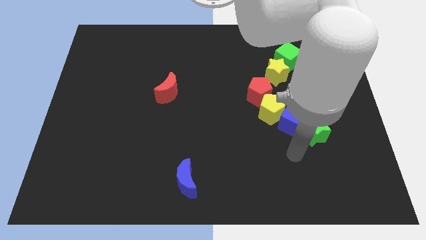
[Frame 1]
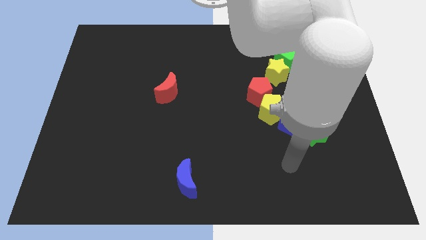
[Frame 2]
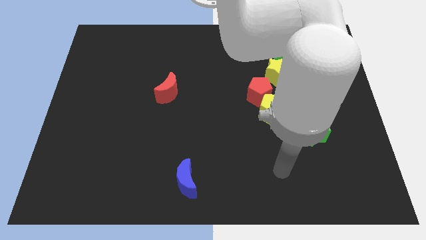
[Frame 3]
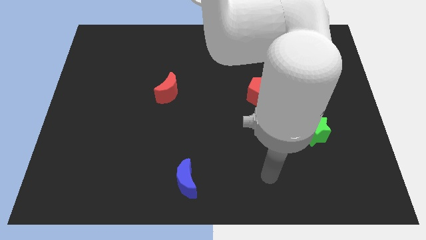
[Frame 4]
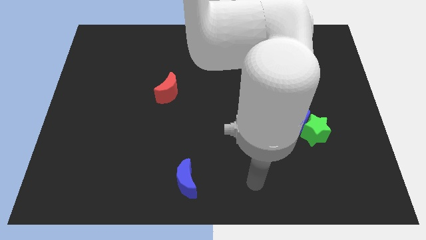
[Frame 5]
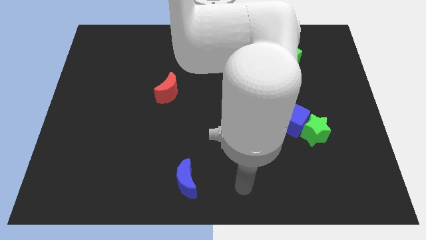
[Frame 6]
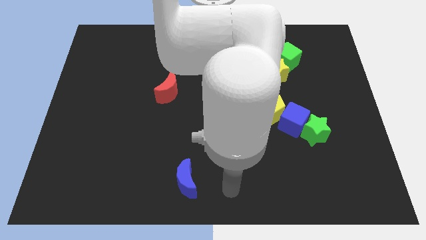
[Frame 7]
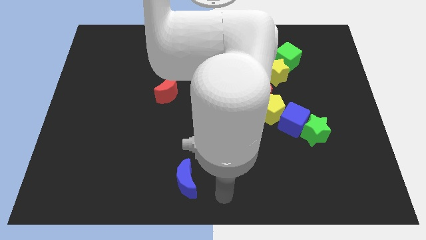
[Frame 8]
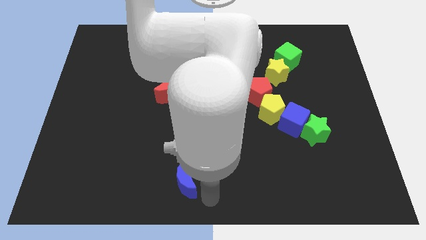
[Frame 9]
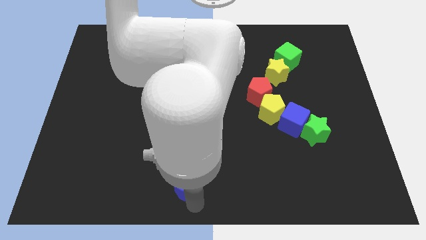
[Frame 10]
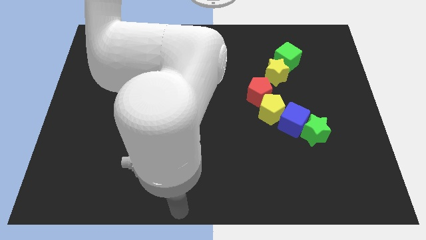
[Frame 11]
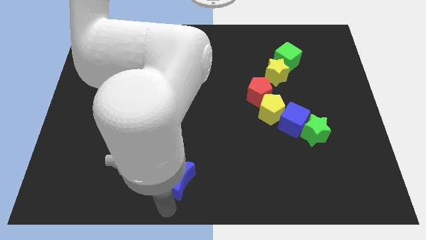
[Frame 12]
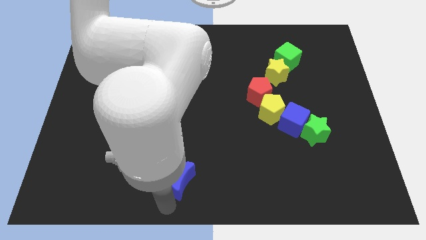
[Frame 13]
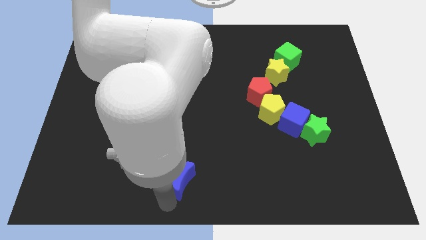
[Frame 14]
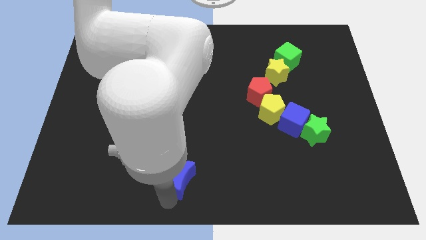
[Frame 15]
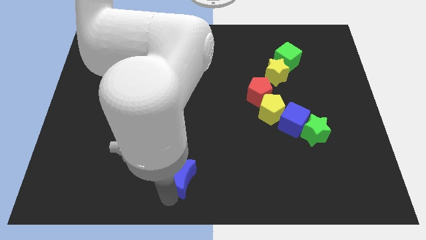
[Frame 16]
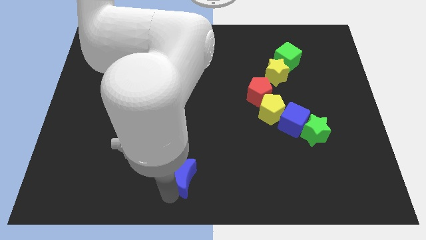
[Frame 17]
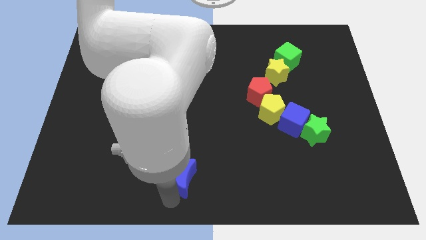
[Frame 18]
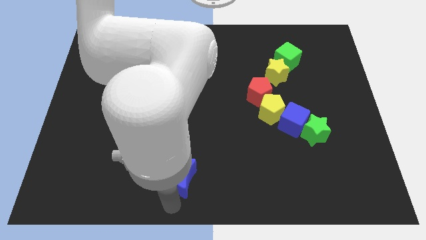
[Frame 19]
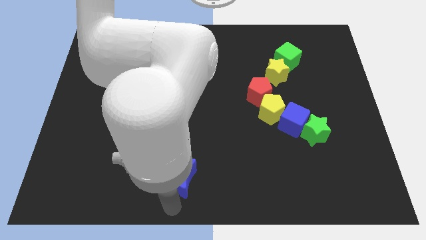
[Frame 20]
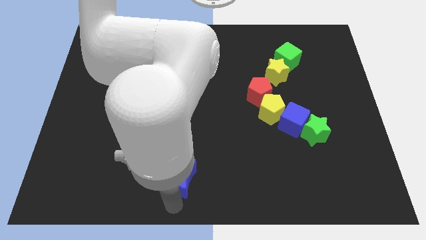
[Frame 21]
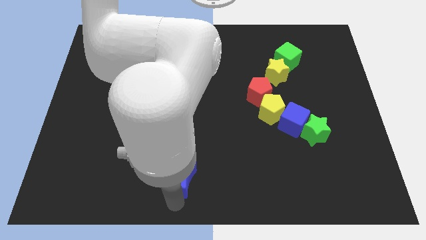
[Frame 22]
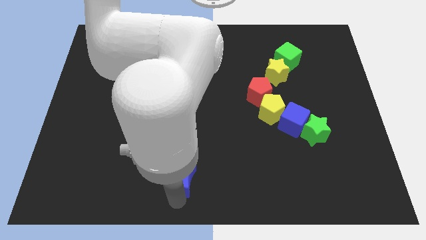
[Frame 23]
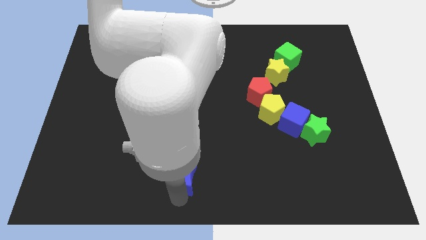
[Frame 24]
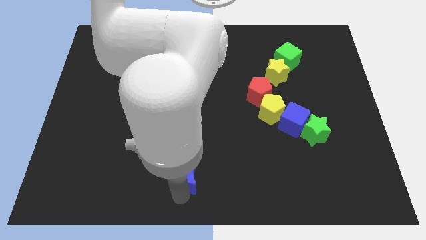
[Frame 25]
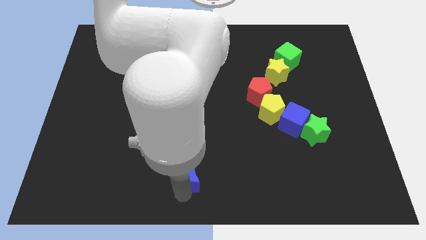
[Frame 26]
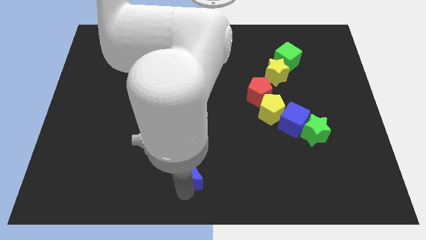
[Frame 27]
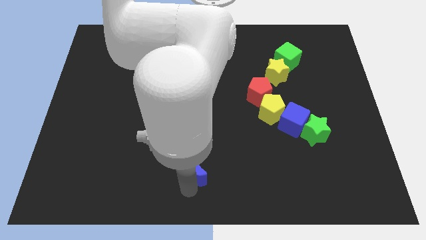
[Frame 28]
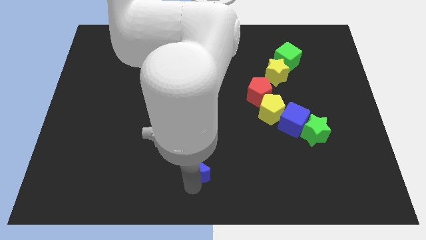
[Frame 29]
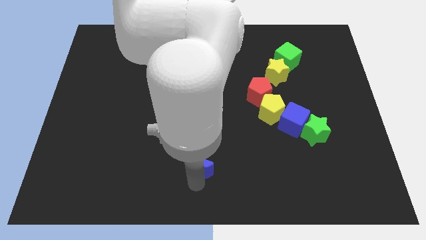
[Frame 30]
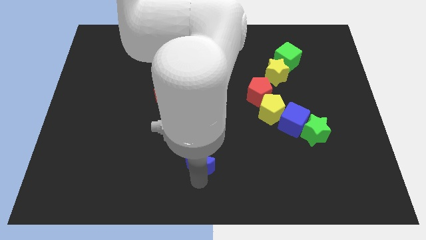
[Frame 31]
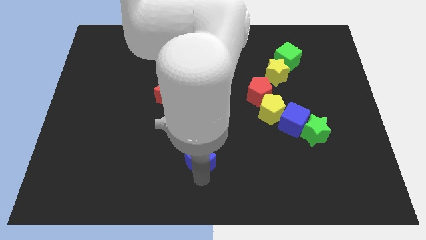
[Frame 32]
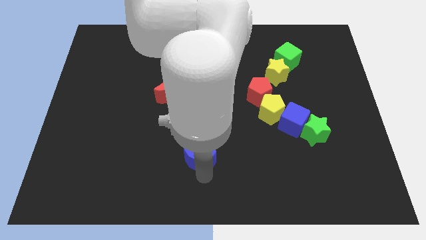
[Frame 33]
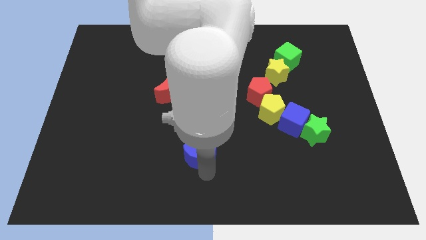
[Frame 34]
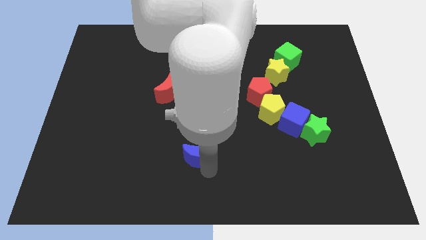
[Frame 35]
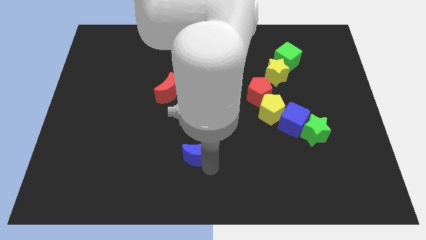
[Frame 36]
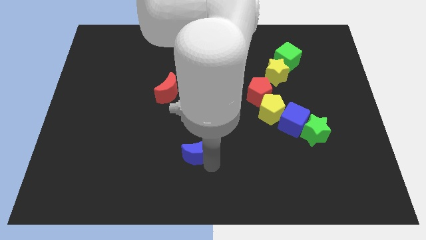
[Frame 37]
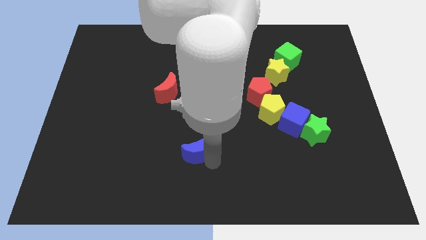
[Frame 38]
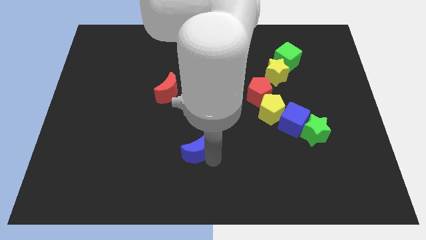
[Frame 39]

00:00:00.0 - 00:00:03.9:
slide the blue moon up a little bit

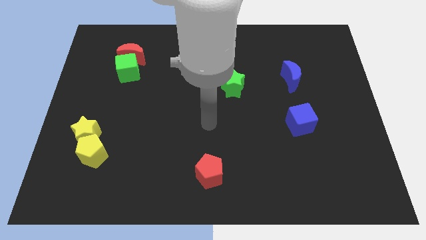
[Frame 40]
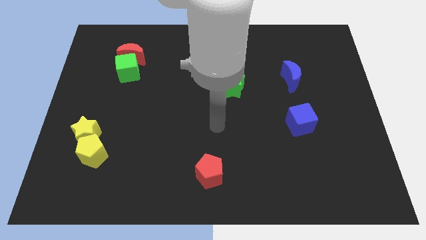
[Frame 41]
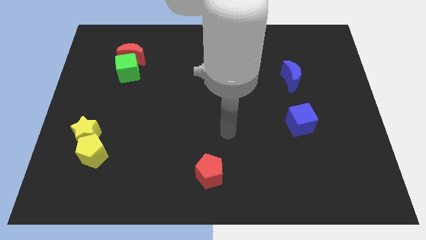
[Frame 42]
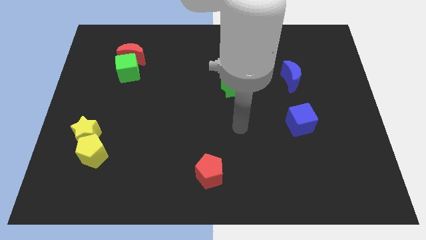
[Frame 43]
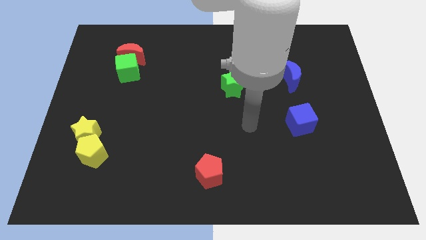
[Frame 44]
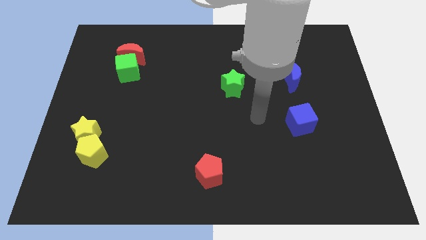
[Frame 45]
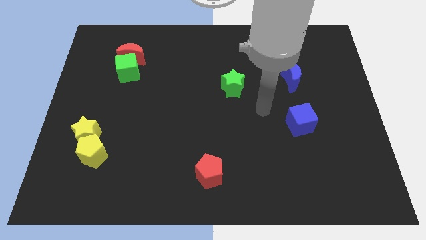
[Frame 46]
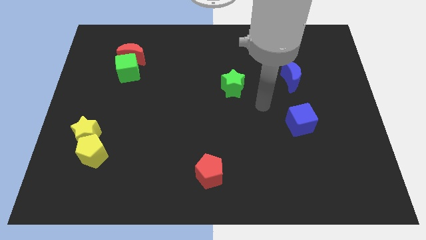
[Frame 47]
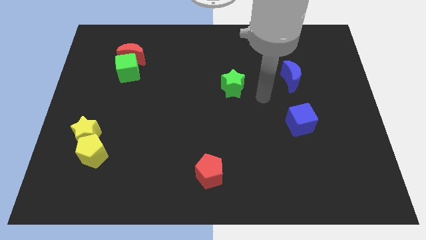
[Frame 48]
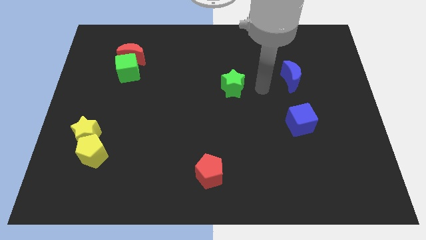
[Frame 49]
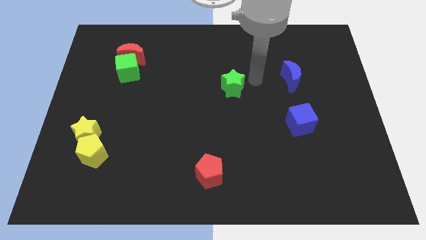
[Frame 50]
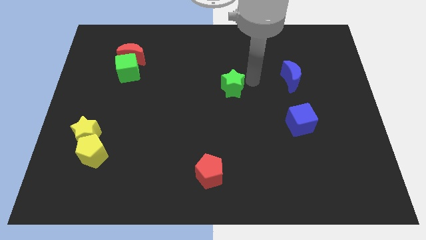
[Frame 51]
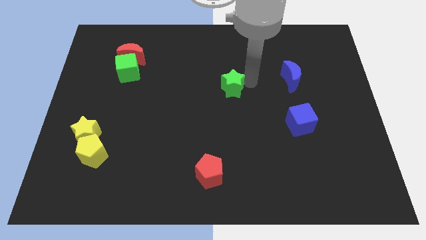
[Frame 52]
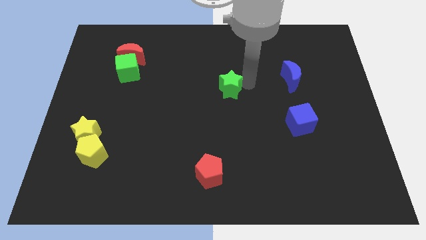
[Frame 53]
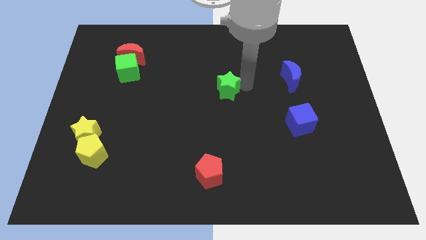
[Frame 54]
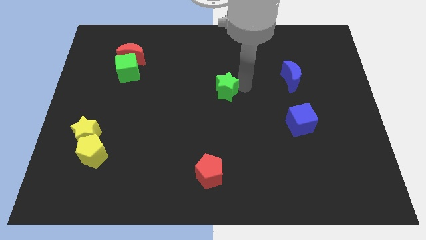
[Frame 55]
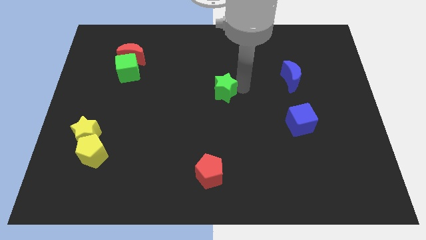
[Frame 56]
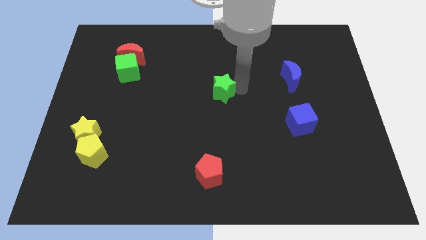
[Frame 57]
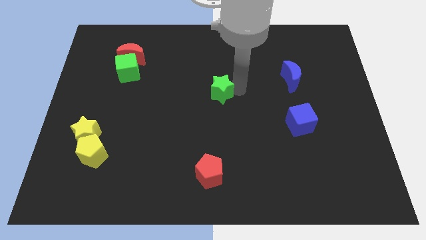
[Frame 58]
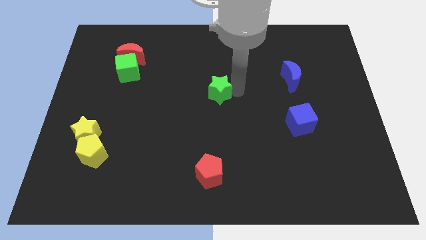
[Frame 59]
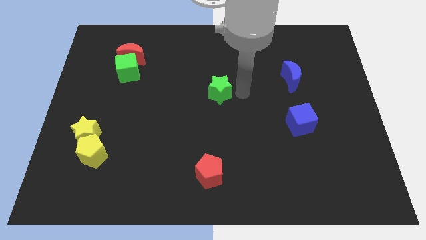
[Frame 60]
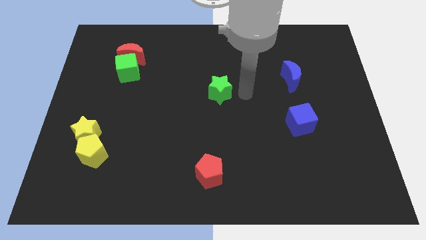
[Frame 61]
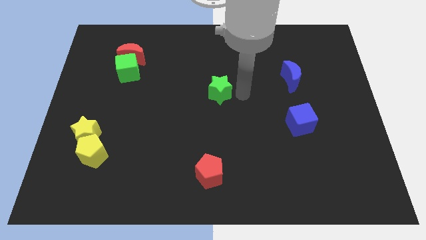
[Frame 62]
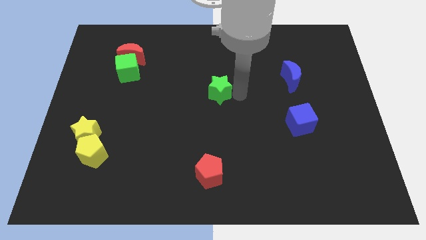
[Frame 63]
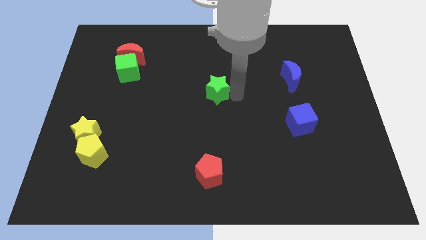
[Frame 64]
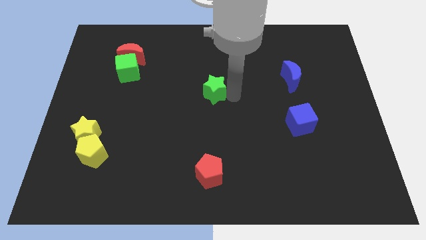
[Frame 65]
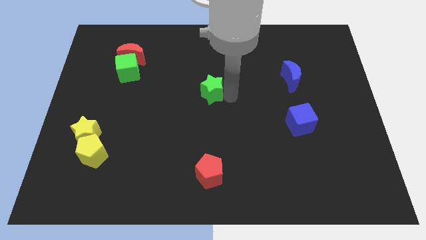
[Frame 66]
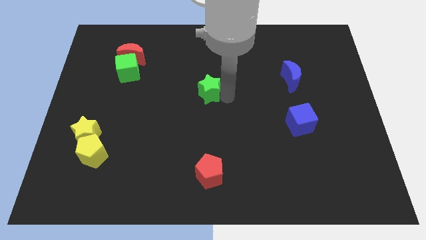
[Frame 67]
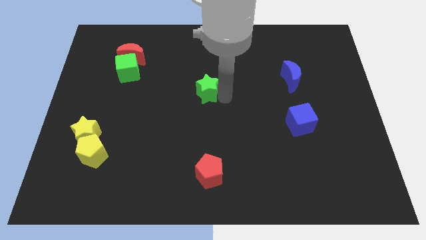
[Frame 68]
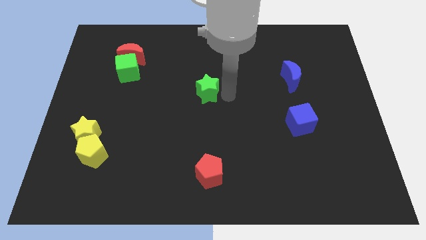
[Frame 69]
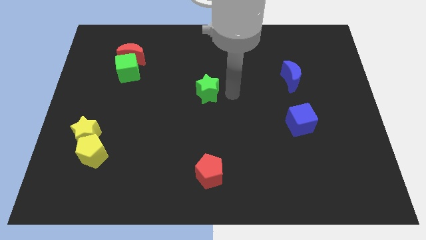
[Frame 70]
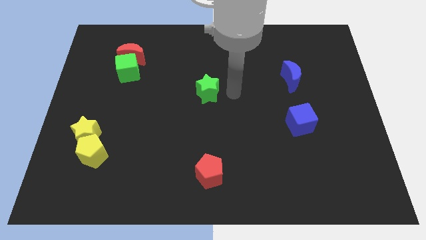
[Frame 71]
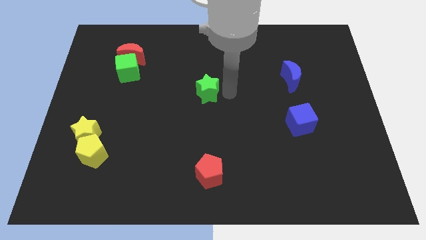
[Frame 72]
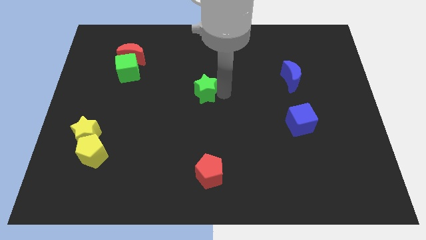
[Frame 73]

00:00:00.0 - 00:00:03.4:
slightly push the green star left

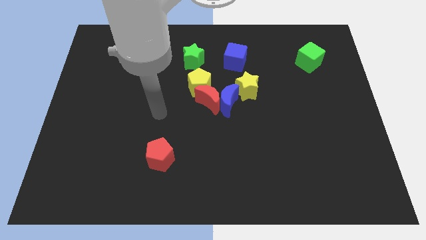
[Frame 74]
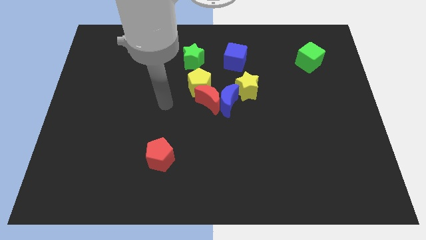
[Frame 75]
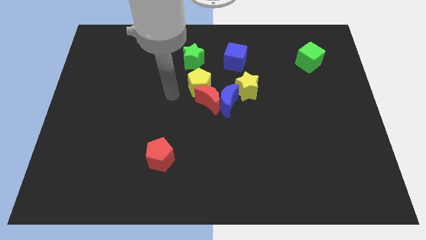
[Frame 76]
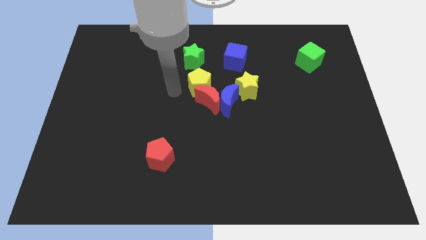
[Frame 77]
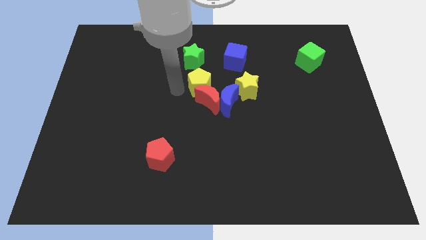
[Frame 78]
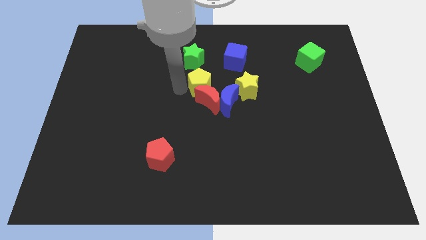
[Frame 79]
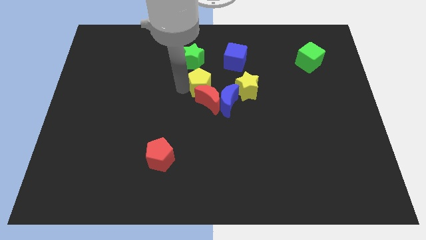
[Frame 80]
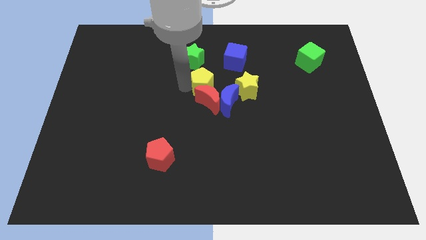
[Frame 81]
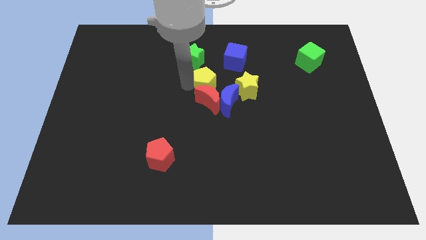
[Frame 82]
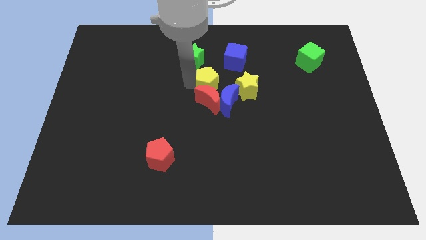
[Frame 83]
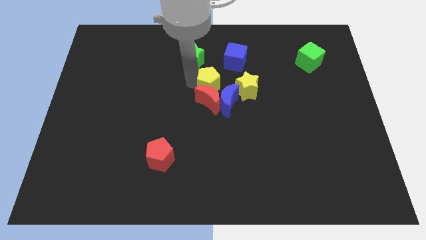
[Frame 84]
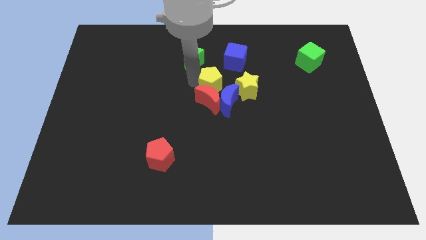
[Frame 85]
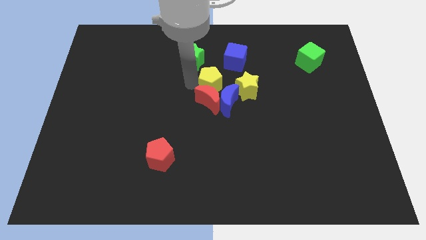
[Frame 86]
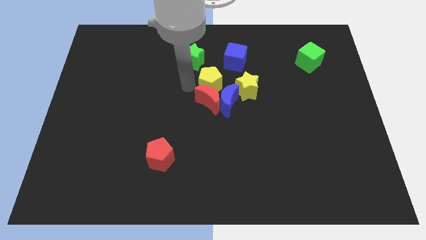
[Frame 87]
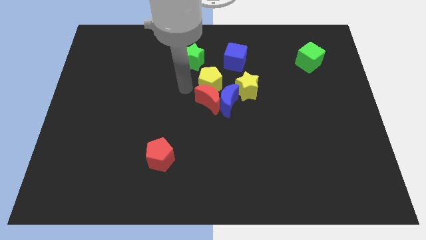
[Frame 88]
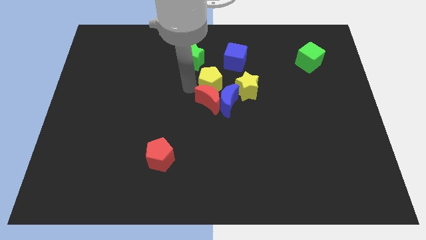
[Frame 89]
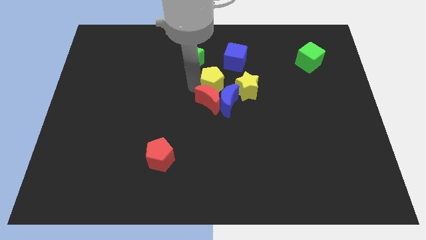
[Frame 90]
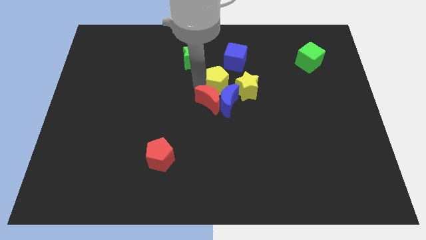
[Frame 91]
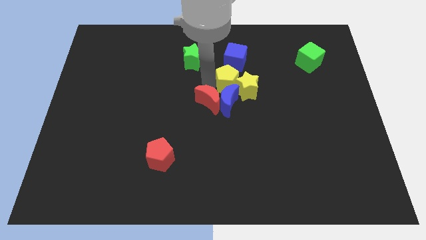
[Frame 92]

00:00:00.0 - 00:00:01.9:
slightly push the yellow pentagon to the right
